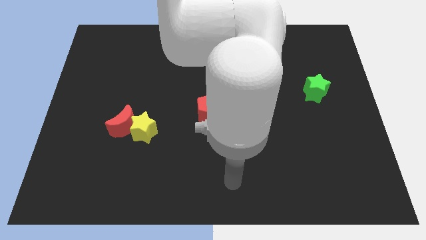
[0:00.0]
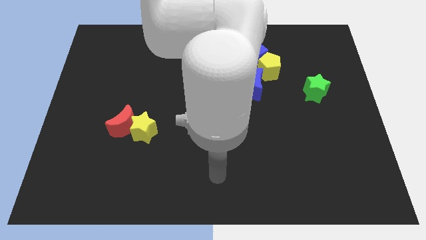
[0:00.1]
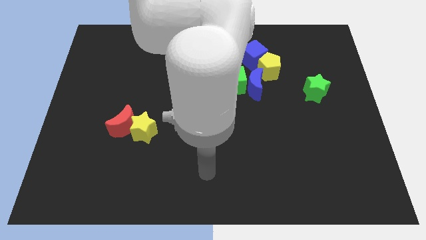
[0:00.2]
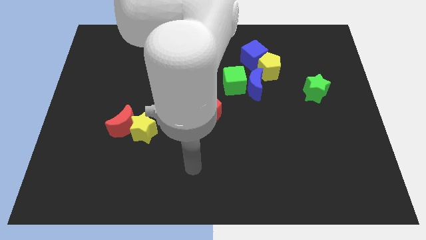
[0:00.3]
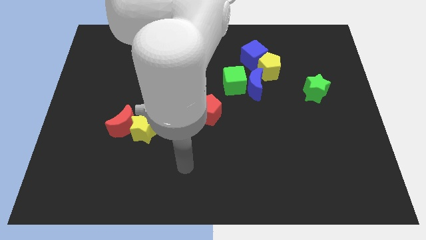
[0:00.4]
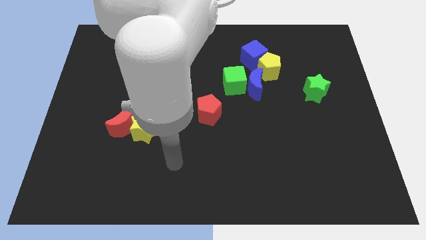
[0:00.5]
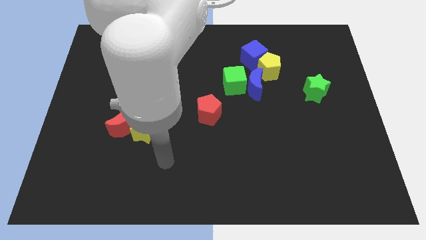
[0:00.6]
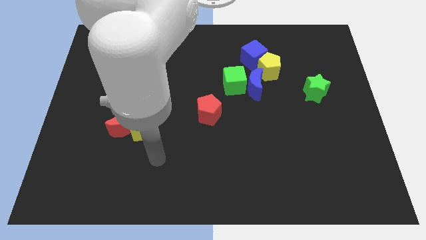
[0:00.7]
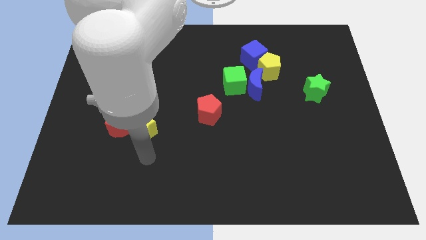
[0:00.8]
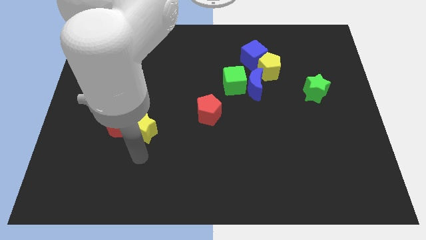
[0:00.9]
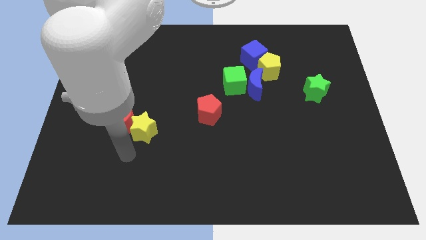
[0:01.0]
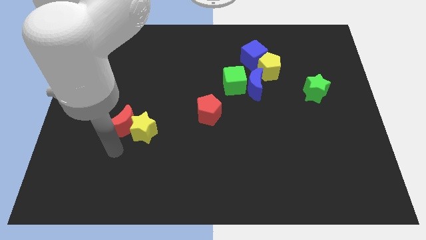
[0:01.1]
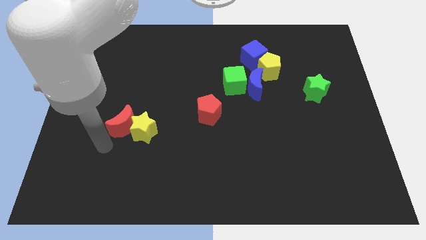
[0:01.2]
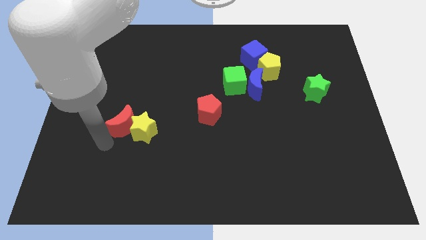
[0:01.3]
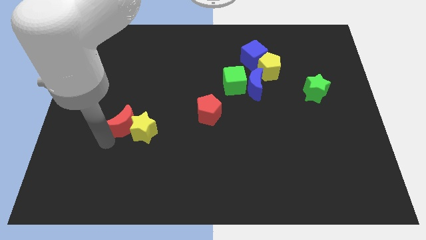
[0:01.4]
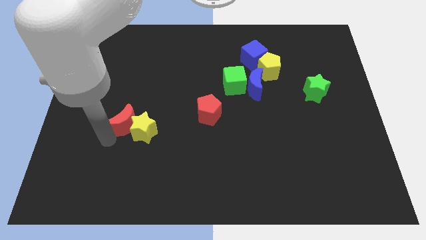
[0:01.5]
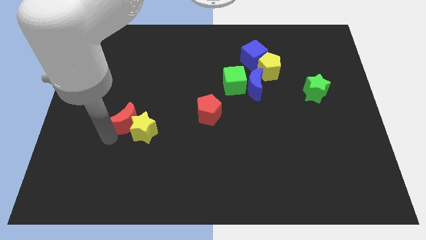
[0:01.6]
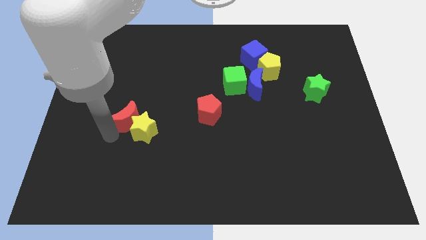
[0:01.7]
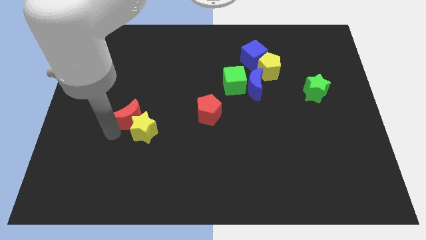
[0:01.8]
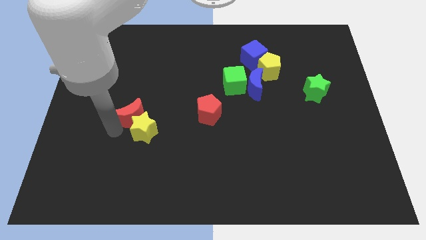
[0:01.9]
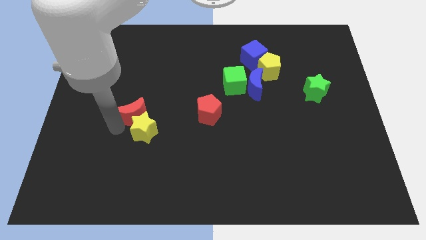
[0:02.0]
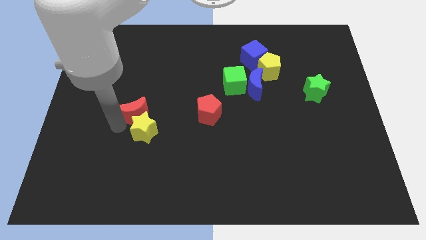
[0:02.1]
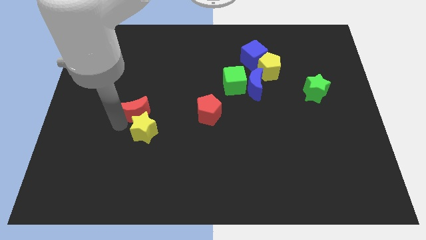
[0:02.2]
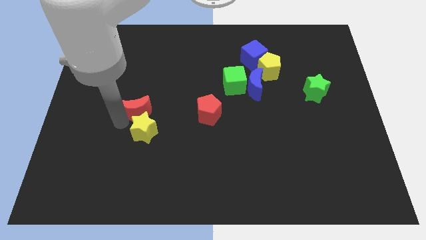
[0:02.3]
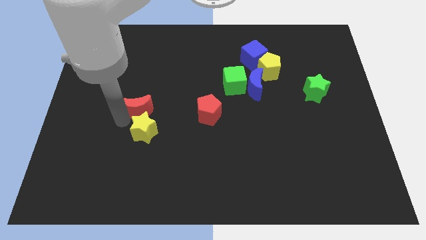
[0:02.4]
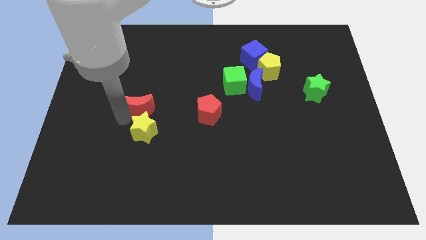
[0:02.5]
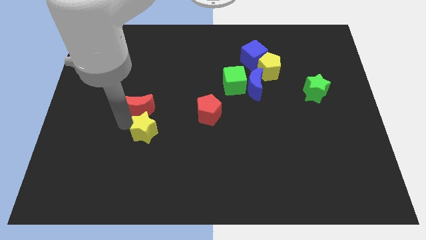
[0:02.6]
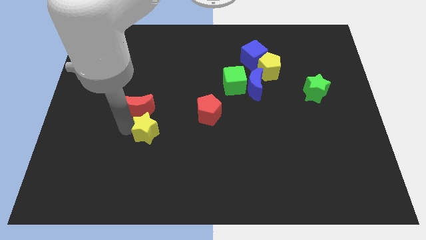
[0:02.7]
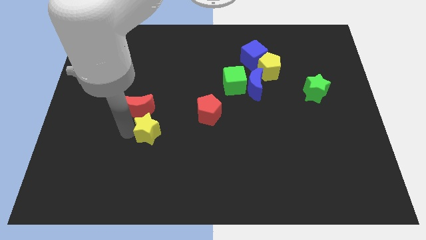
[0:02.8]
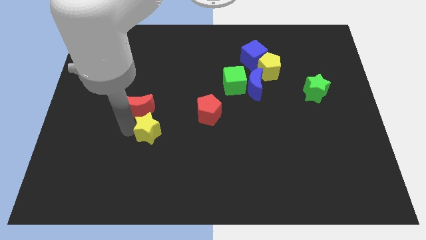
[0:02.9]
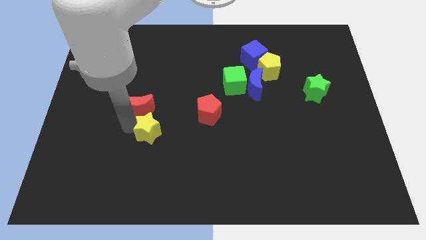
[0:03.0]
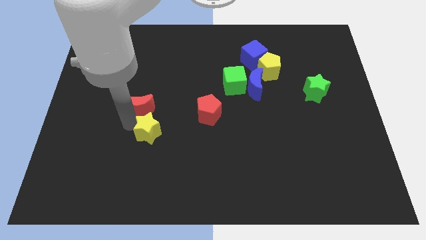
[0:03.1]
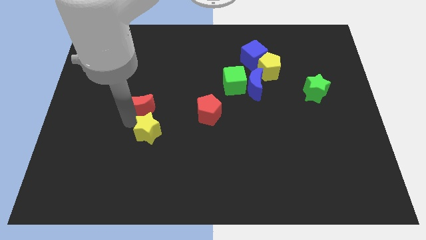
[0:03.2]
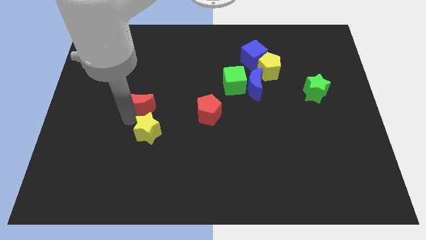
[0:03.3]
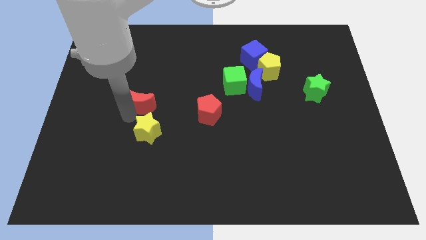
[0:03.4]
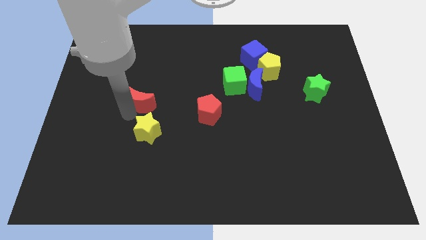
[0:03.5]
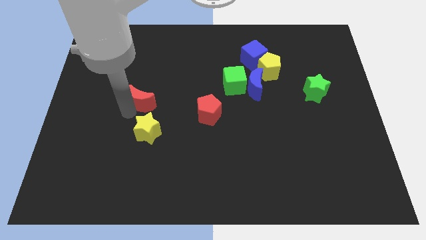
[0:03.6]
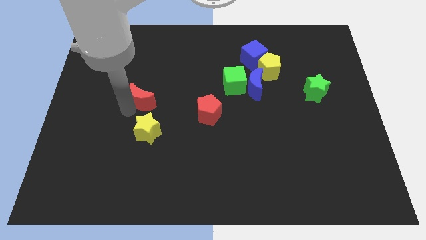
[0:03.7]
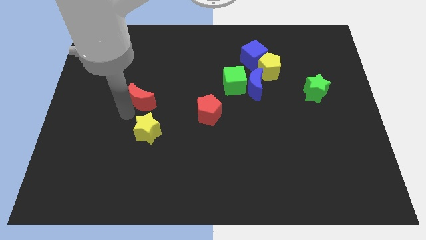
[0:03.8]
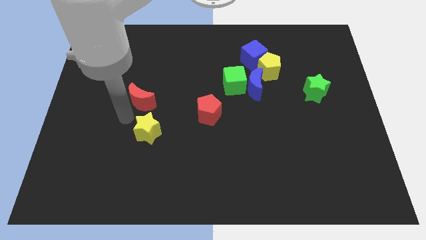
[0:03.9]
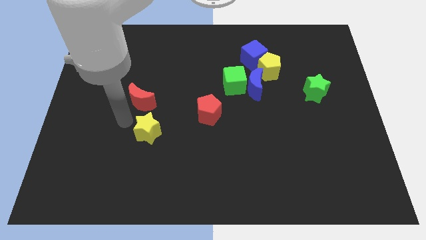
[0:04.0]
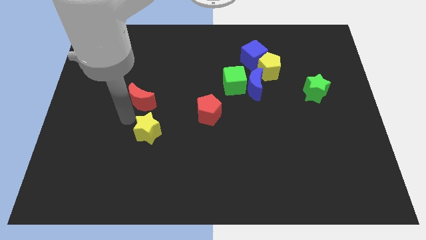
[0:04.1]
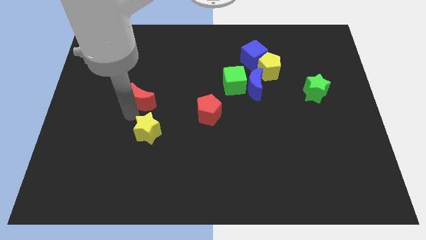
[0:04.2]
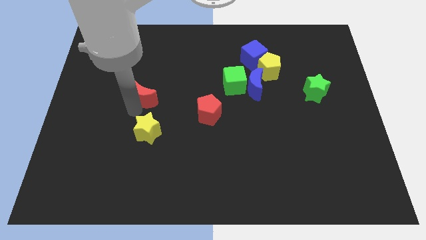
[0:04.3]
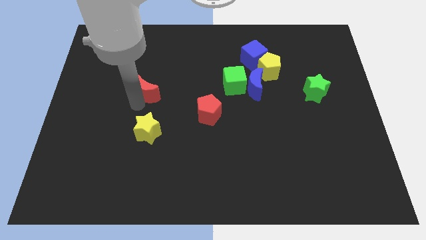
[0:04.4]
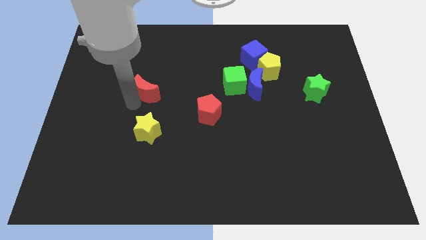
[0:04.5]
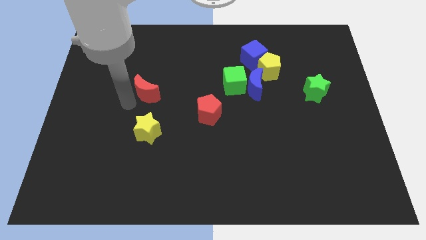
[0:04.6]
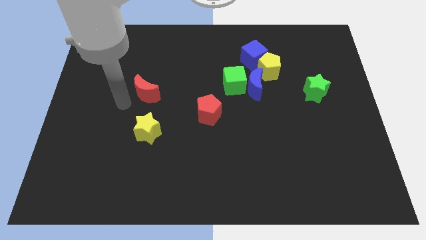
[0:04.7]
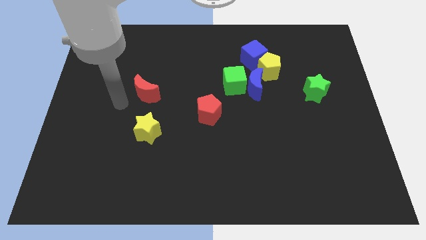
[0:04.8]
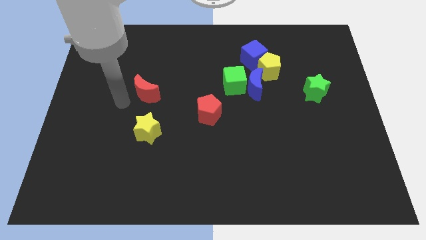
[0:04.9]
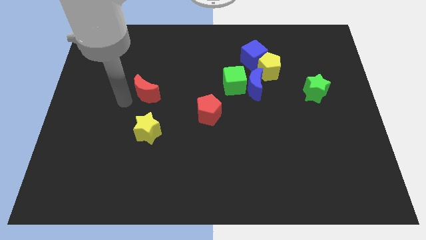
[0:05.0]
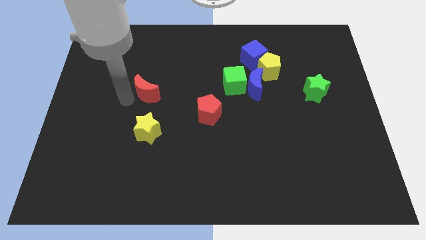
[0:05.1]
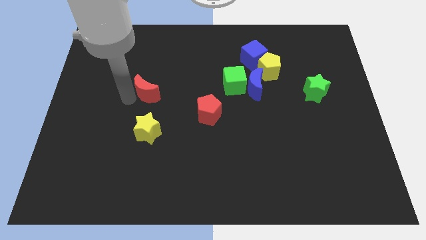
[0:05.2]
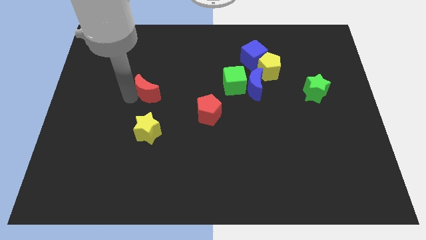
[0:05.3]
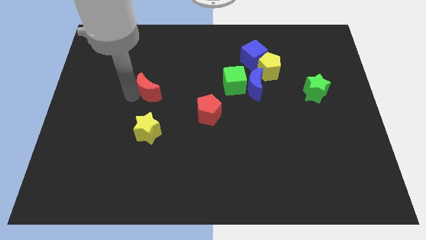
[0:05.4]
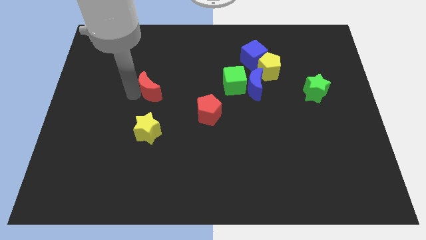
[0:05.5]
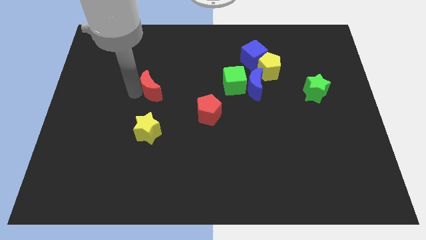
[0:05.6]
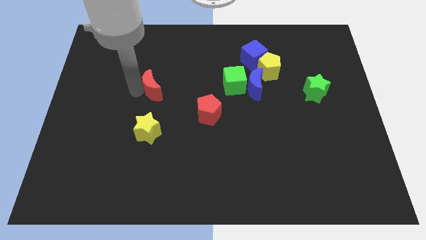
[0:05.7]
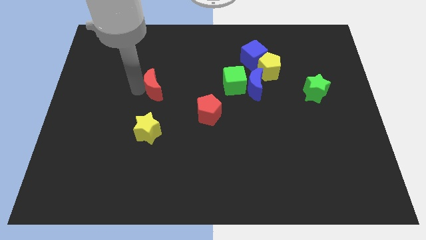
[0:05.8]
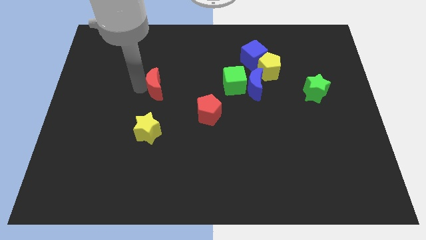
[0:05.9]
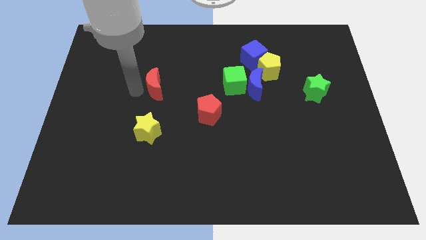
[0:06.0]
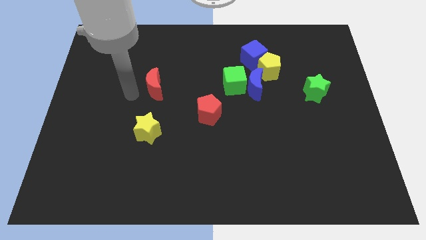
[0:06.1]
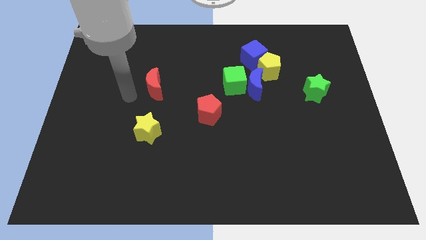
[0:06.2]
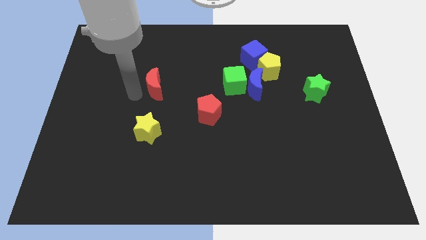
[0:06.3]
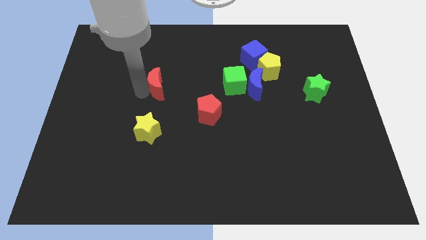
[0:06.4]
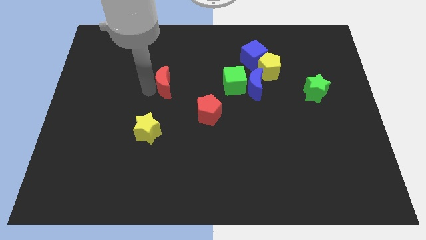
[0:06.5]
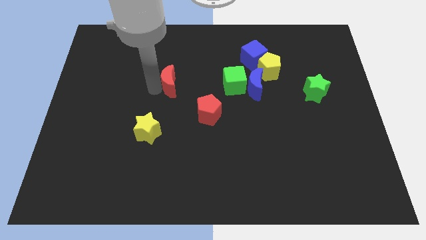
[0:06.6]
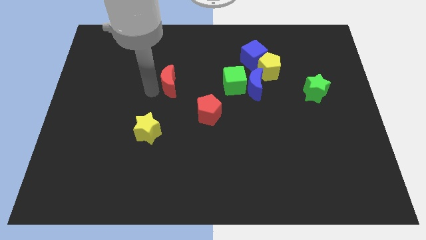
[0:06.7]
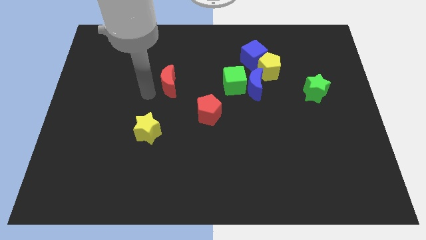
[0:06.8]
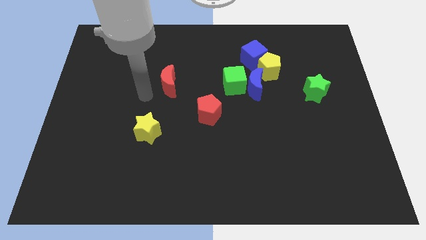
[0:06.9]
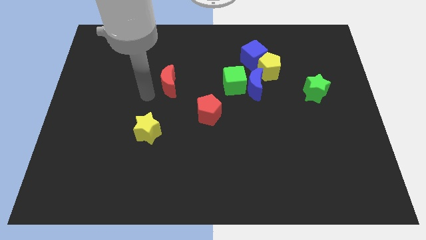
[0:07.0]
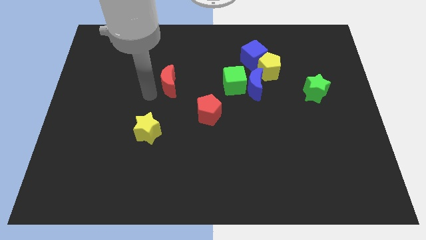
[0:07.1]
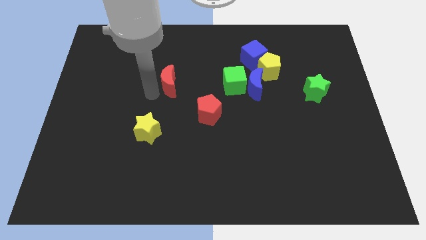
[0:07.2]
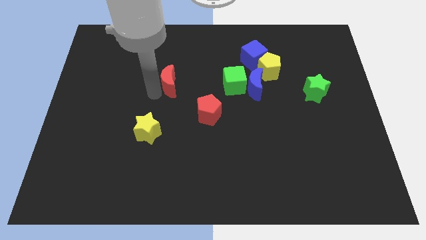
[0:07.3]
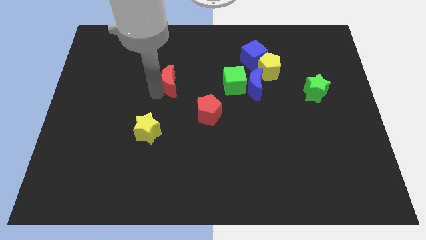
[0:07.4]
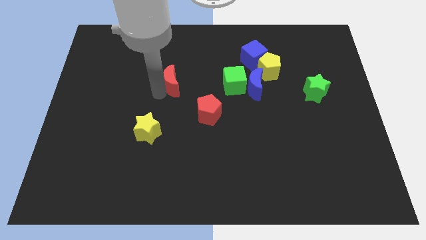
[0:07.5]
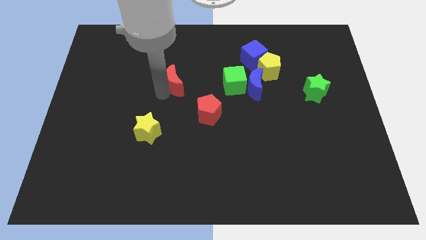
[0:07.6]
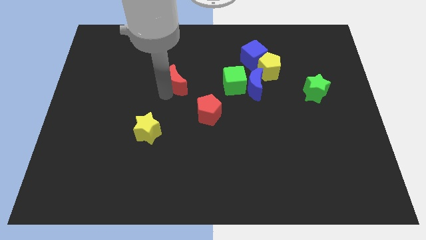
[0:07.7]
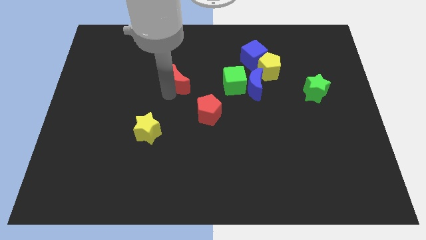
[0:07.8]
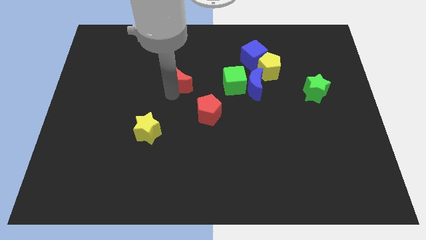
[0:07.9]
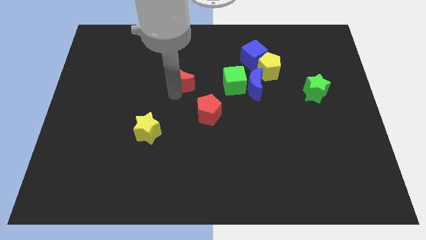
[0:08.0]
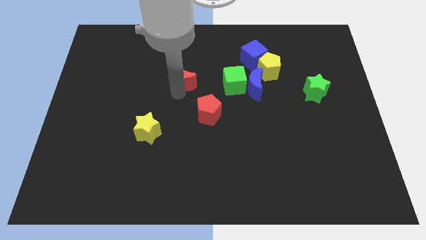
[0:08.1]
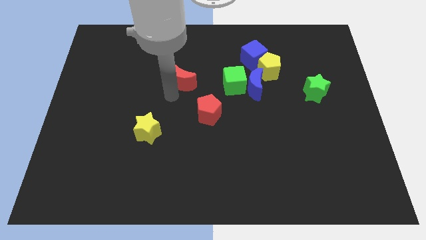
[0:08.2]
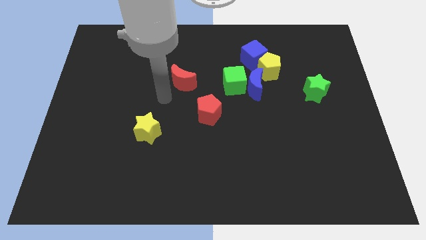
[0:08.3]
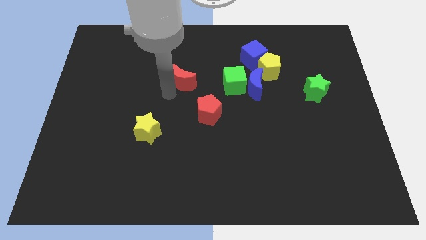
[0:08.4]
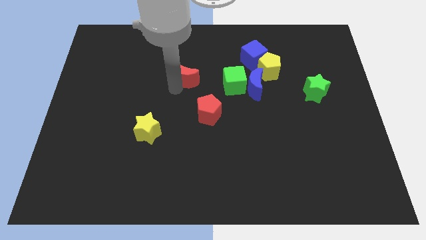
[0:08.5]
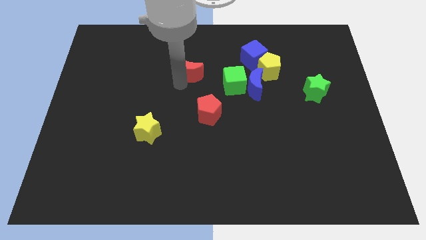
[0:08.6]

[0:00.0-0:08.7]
push the red moon up and to the right
